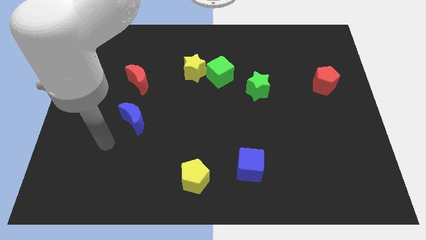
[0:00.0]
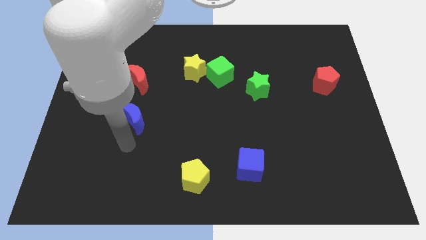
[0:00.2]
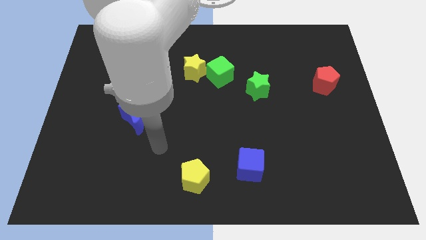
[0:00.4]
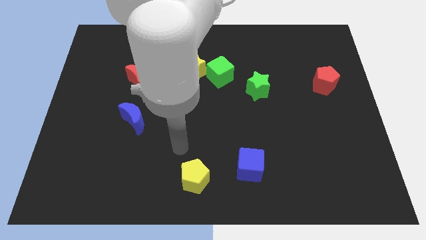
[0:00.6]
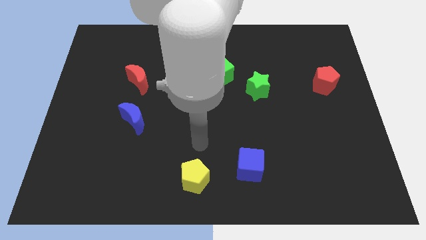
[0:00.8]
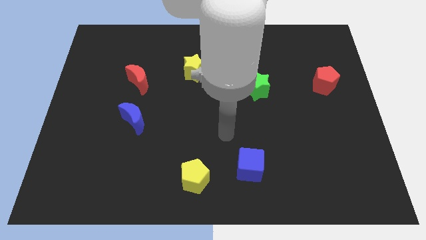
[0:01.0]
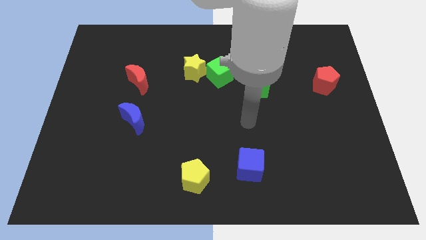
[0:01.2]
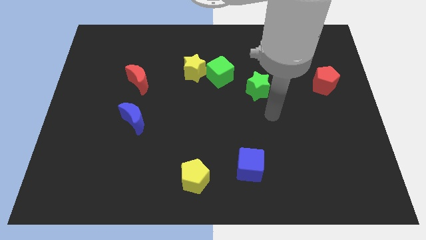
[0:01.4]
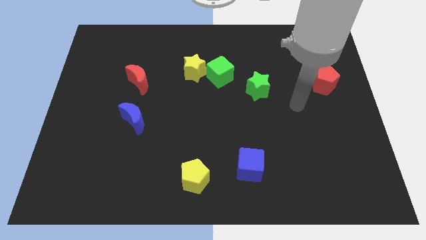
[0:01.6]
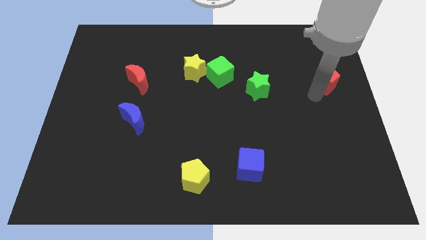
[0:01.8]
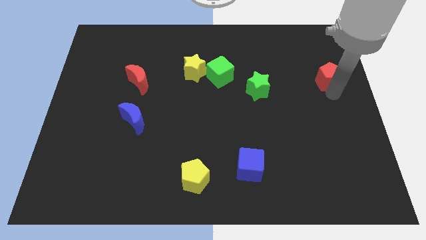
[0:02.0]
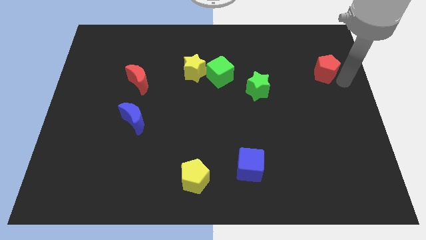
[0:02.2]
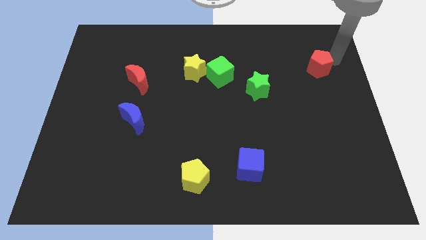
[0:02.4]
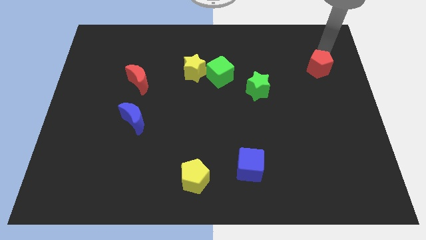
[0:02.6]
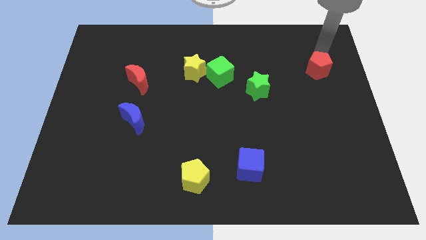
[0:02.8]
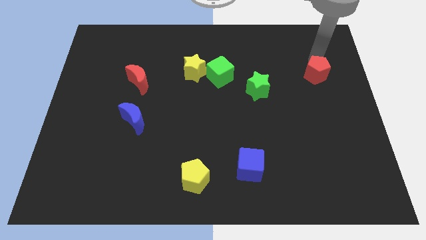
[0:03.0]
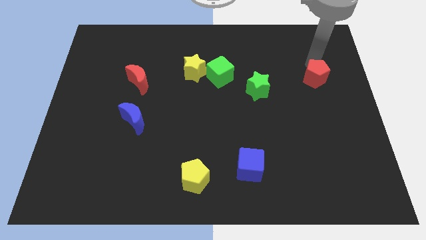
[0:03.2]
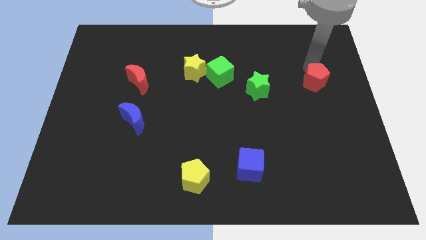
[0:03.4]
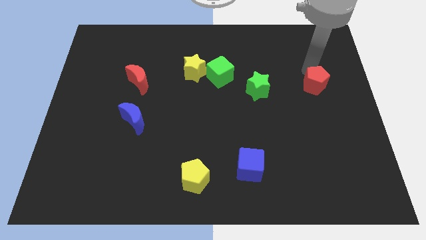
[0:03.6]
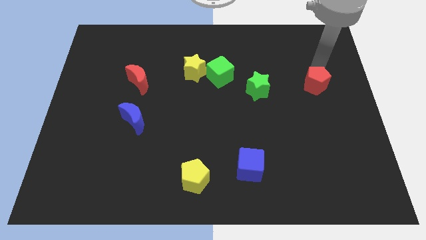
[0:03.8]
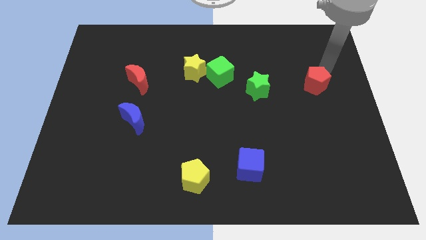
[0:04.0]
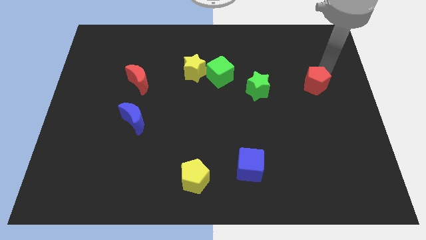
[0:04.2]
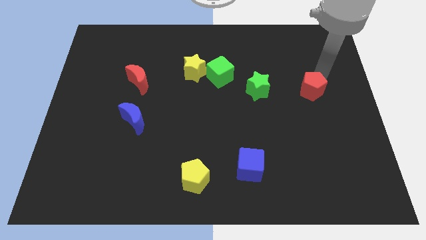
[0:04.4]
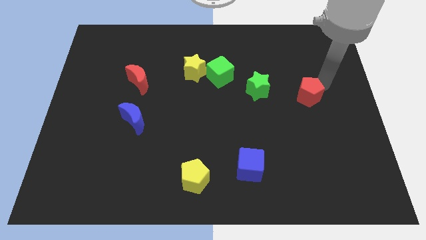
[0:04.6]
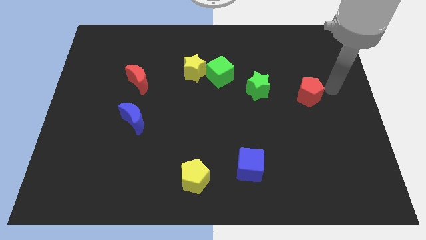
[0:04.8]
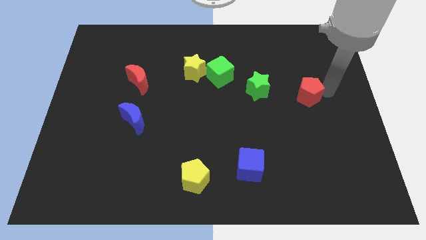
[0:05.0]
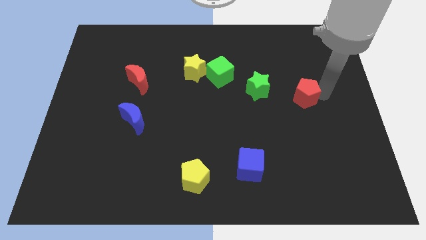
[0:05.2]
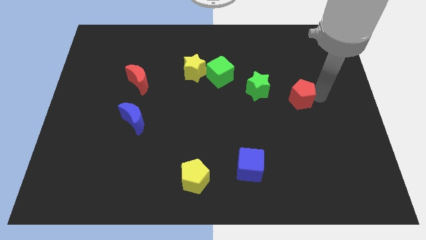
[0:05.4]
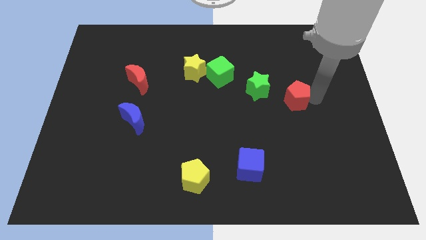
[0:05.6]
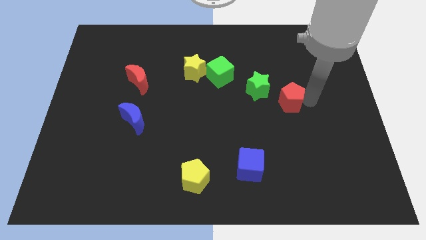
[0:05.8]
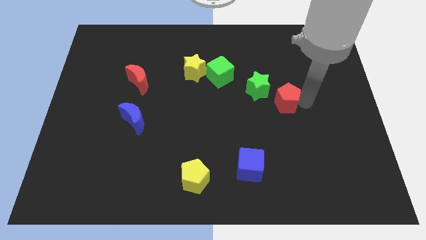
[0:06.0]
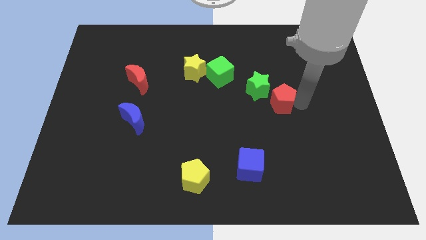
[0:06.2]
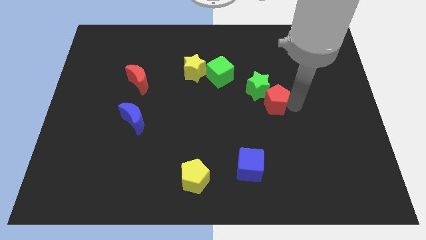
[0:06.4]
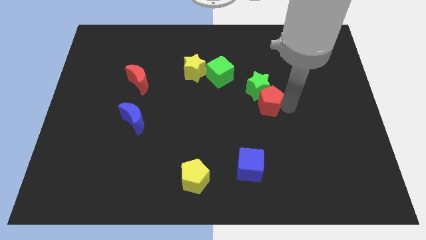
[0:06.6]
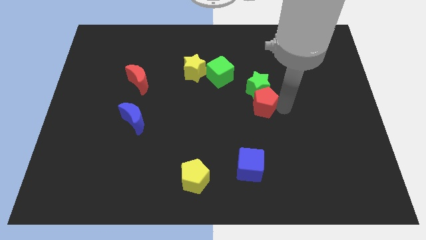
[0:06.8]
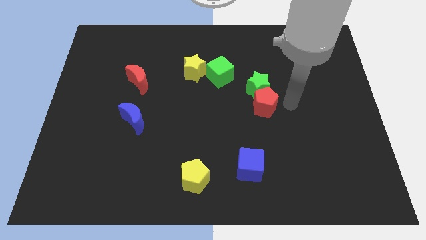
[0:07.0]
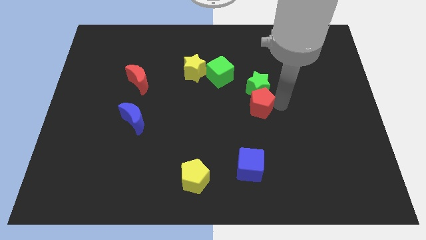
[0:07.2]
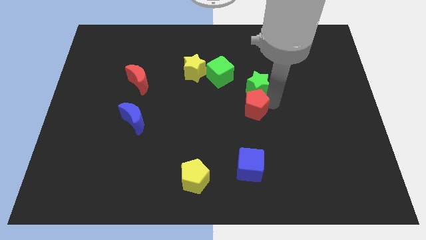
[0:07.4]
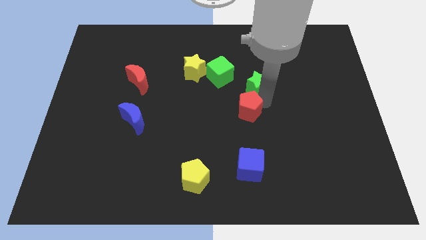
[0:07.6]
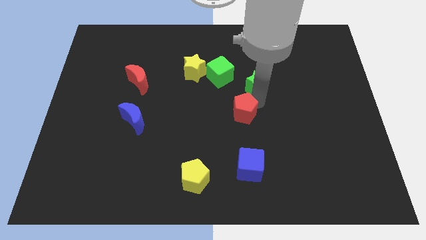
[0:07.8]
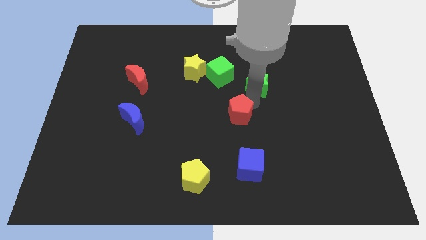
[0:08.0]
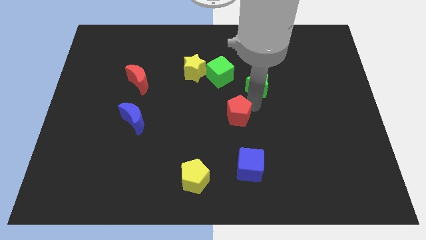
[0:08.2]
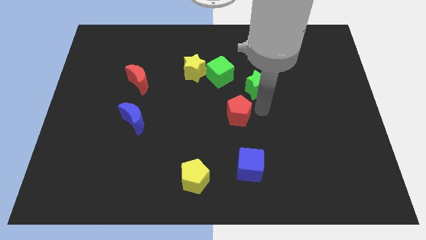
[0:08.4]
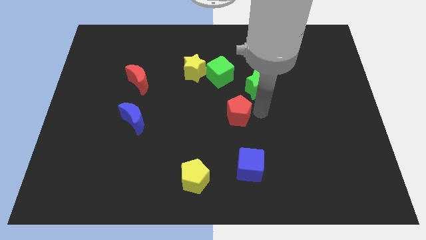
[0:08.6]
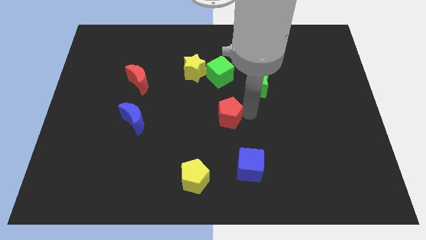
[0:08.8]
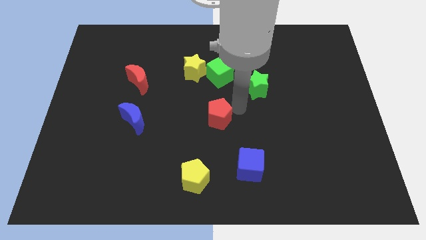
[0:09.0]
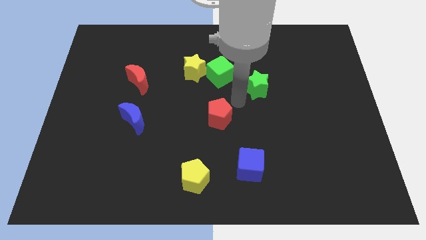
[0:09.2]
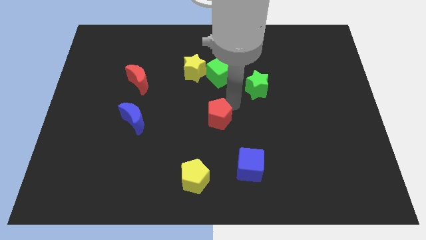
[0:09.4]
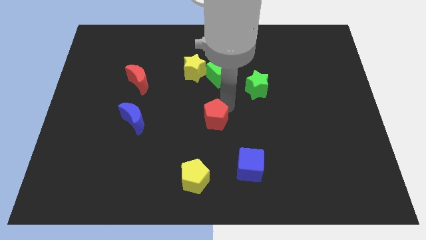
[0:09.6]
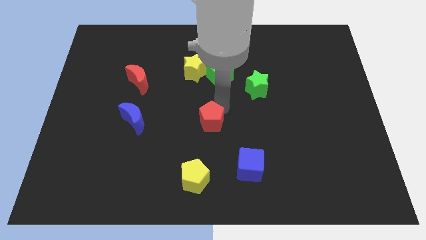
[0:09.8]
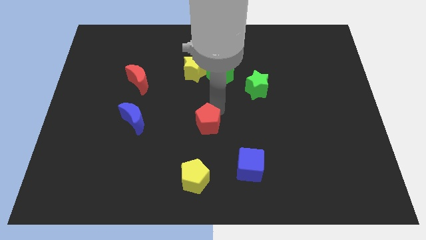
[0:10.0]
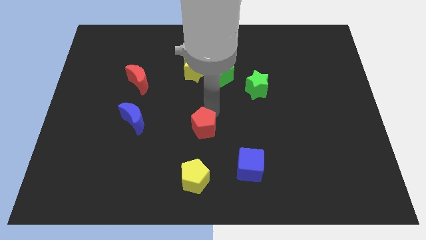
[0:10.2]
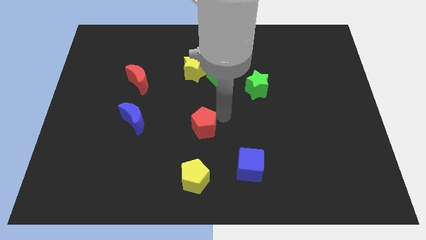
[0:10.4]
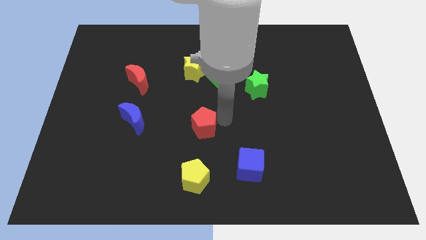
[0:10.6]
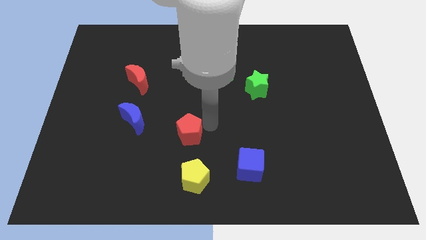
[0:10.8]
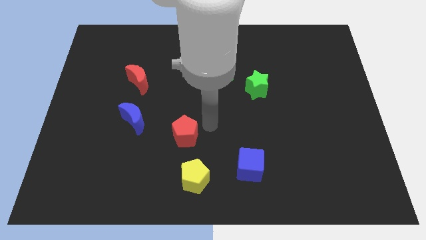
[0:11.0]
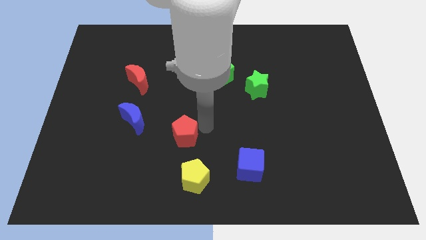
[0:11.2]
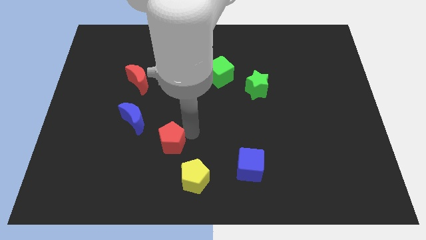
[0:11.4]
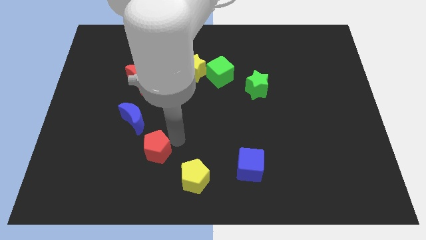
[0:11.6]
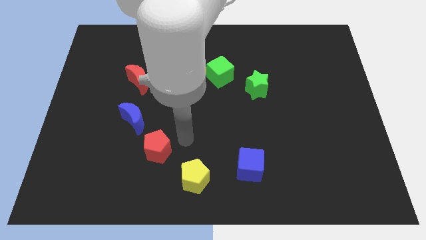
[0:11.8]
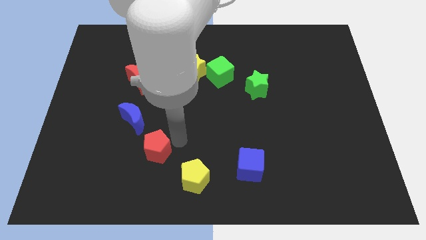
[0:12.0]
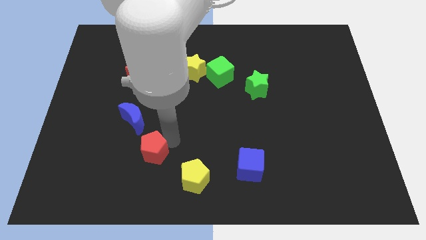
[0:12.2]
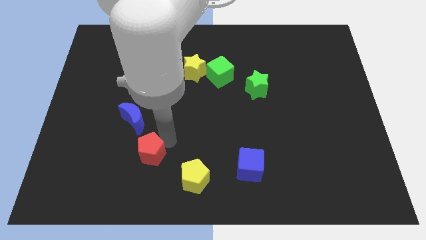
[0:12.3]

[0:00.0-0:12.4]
put the red pentagon below the blue moon
